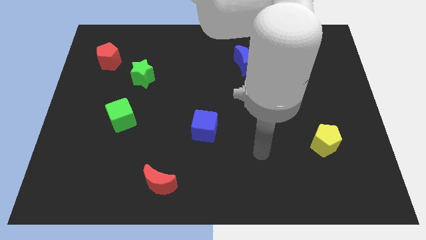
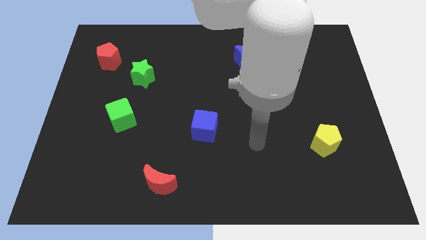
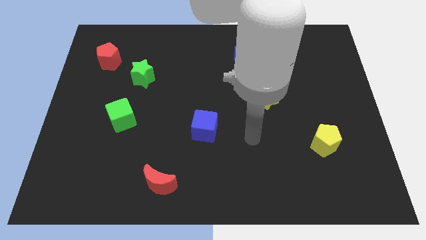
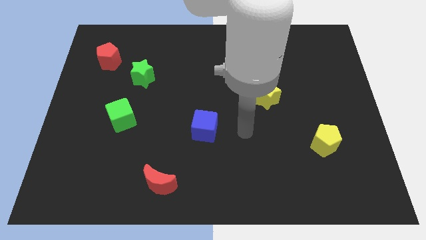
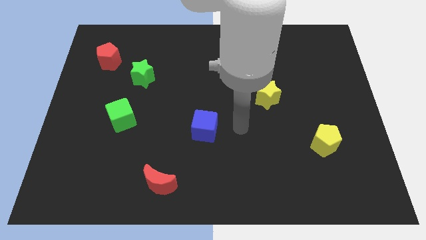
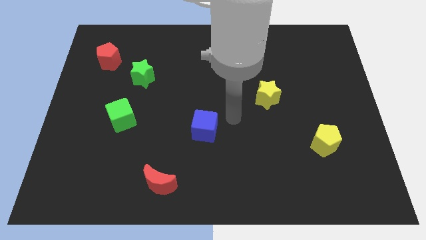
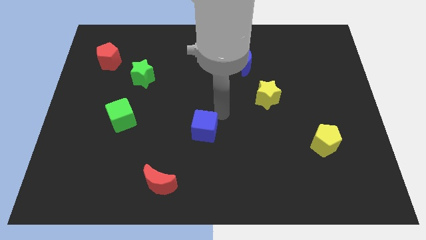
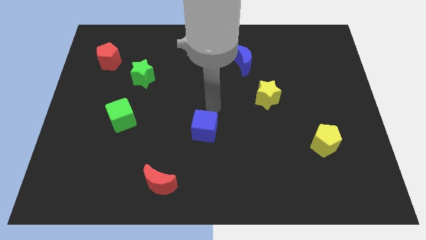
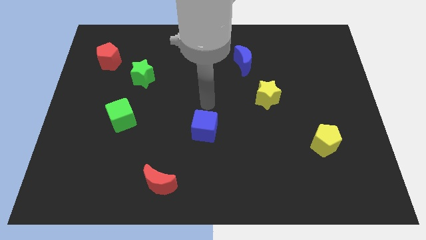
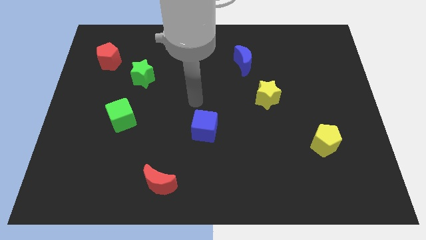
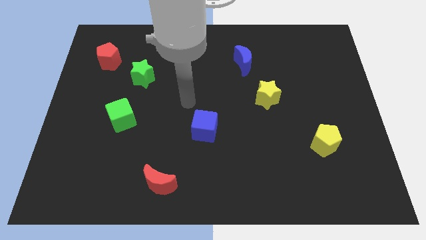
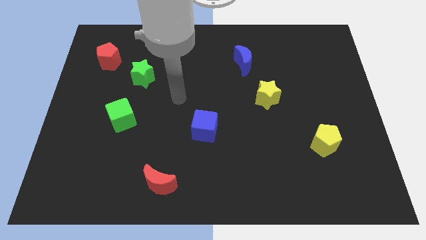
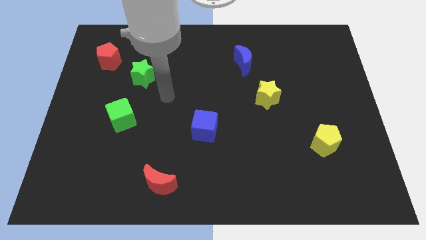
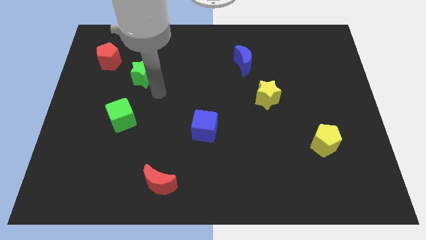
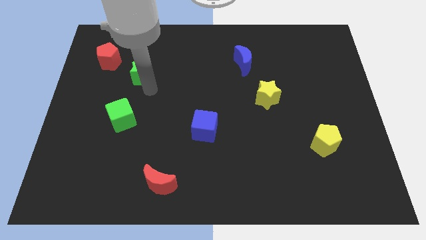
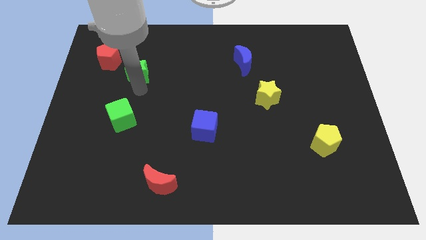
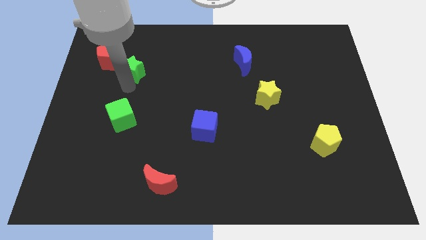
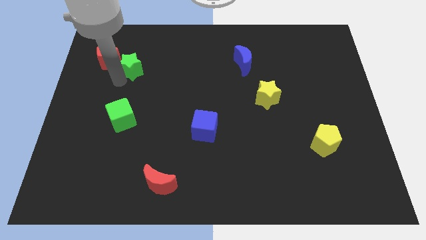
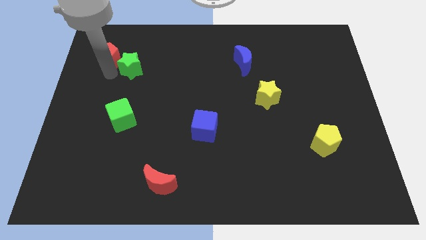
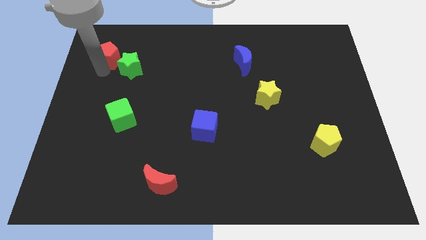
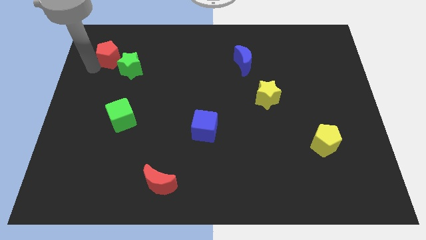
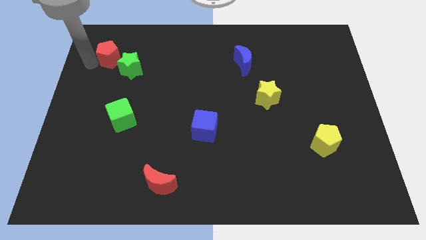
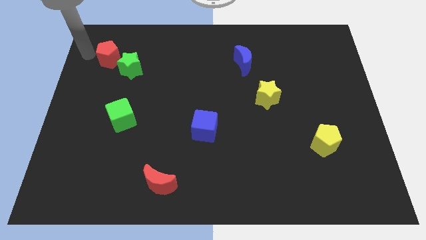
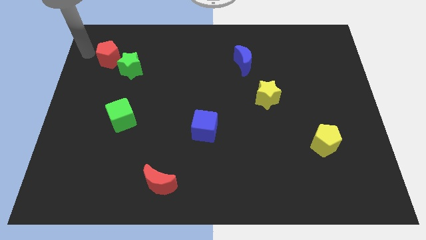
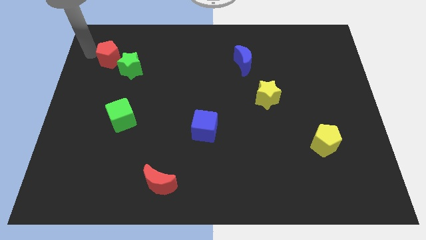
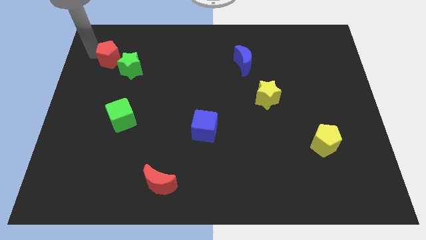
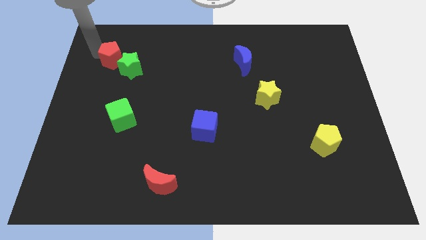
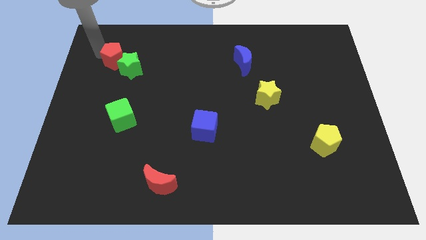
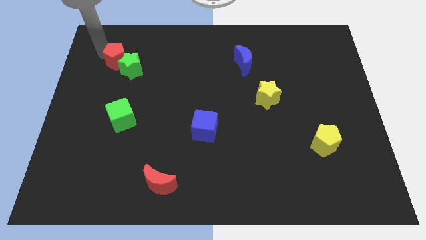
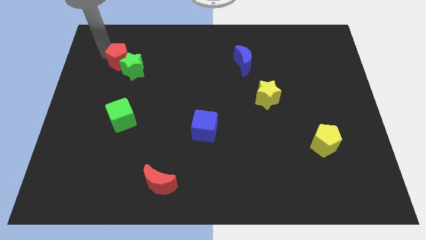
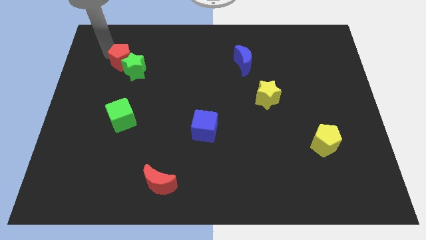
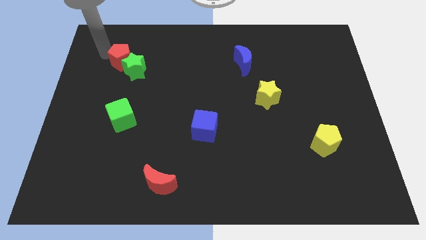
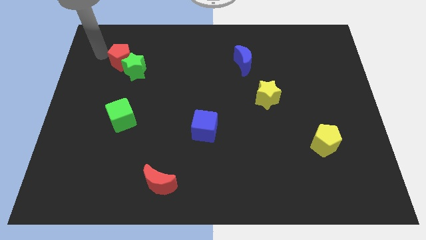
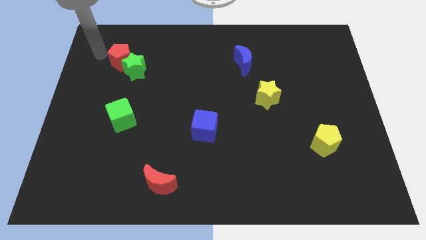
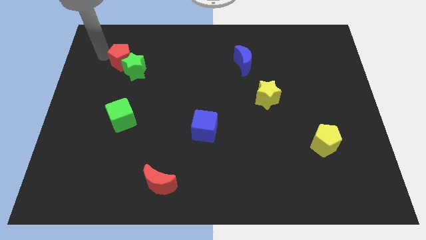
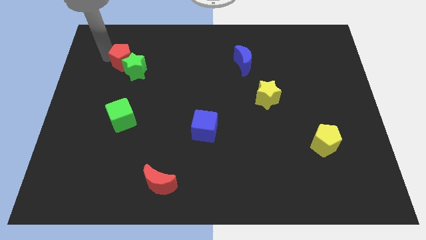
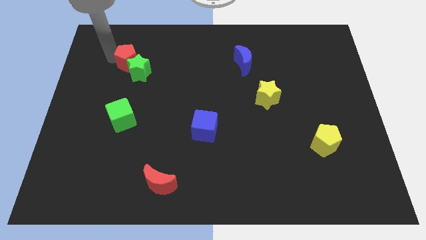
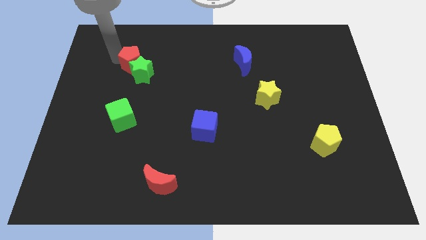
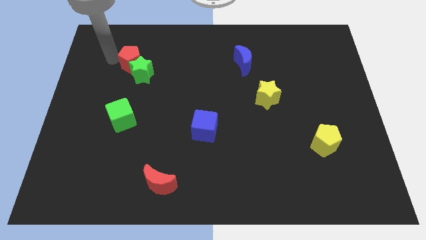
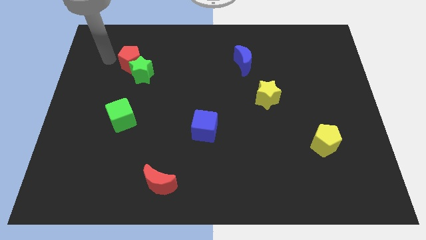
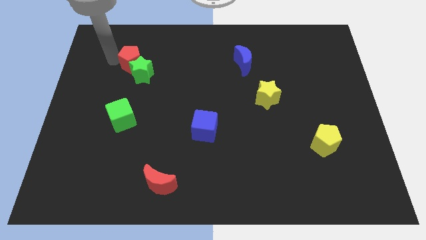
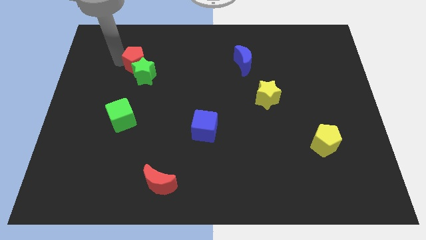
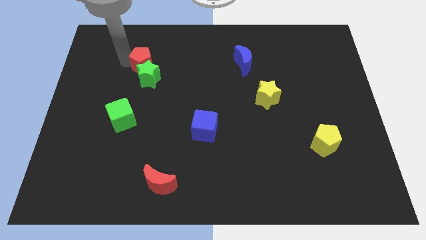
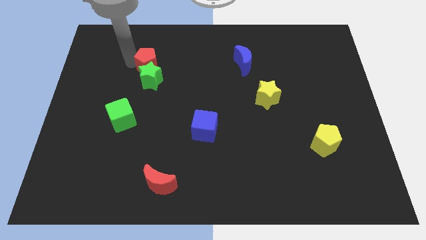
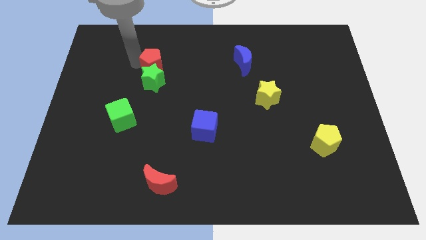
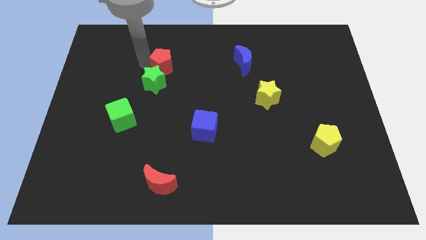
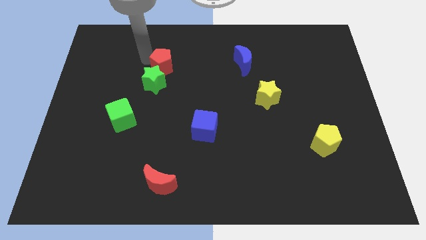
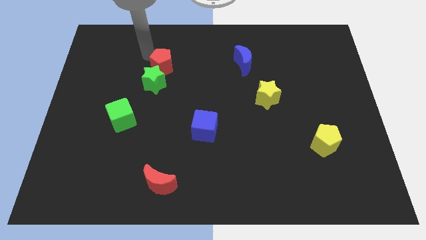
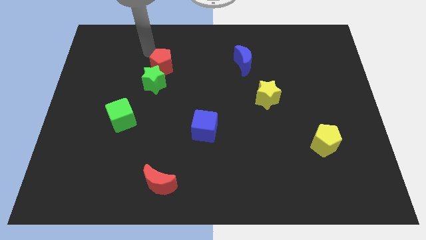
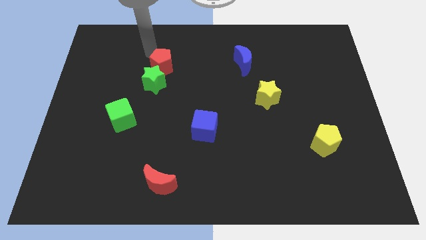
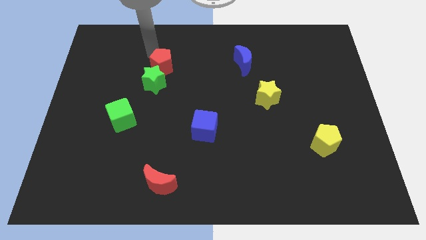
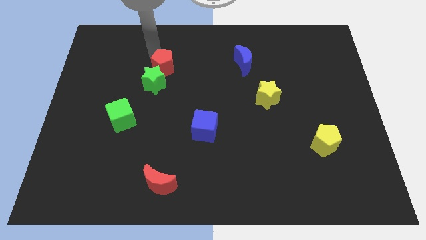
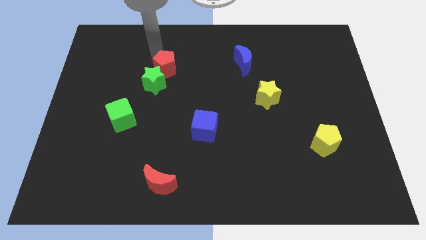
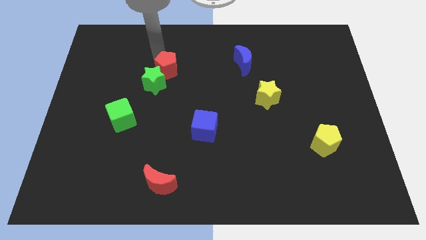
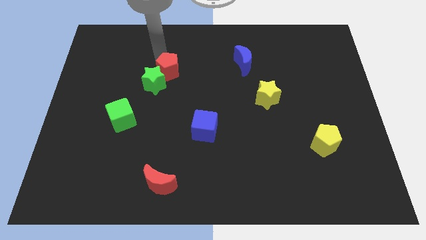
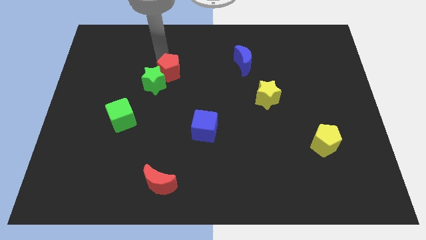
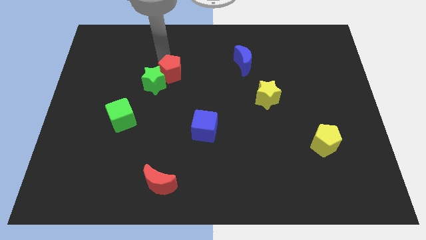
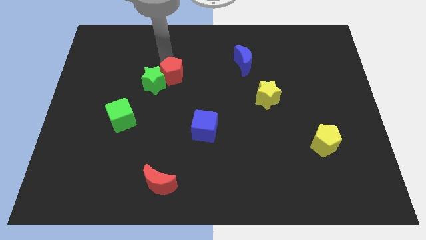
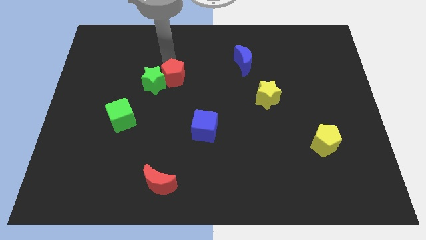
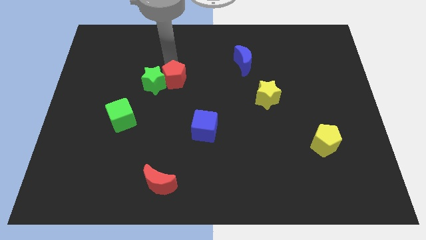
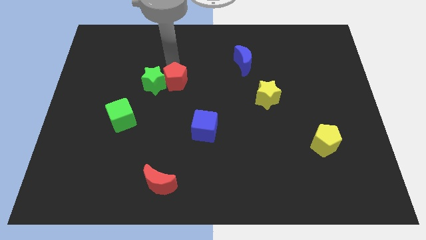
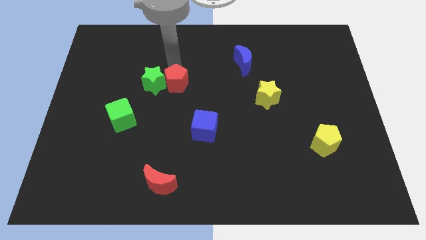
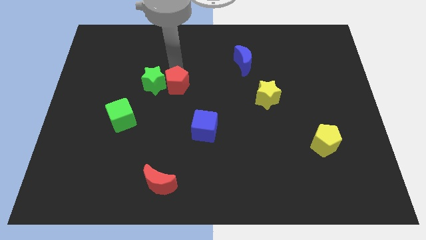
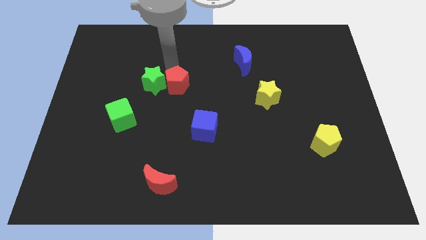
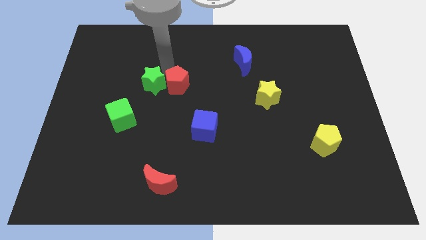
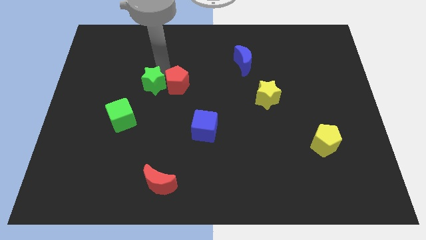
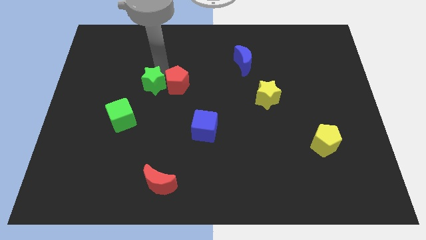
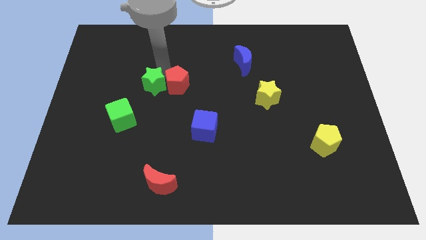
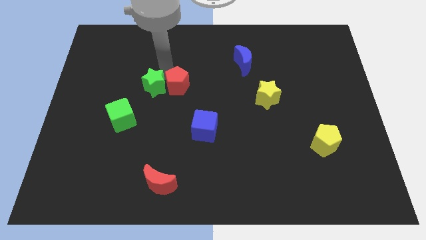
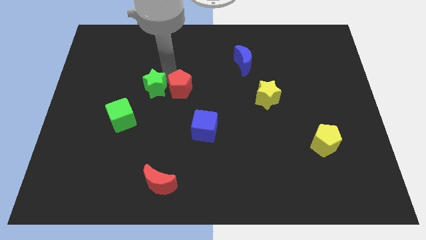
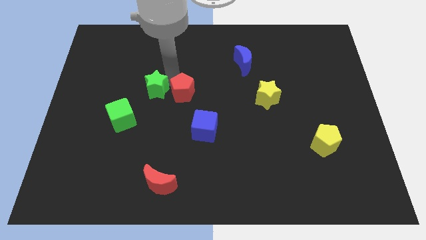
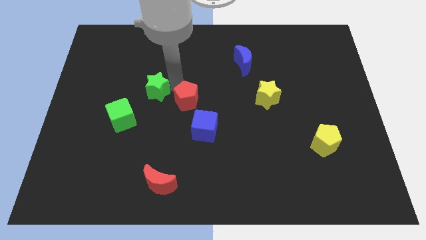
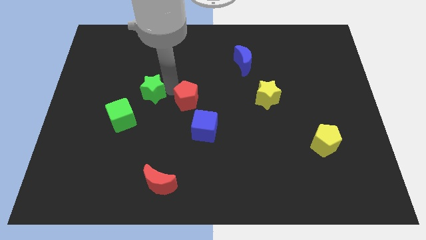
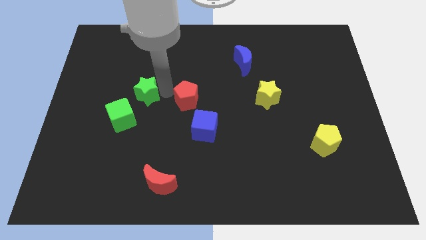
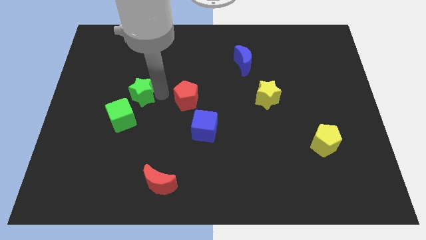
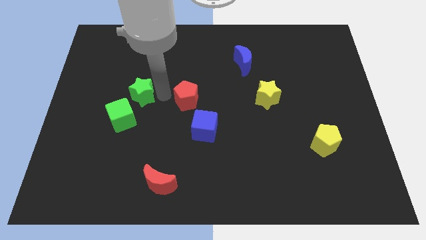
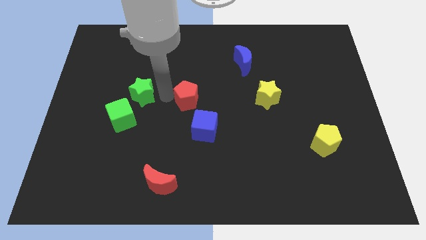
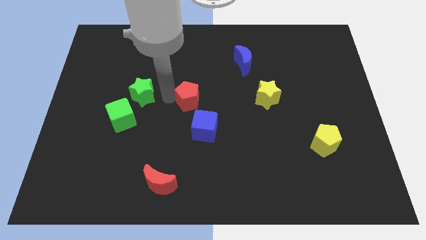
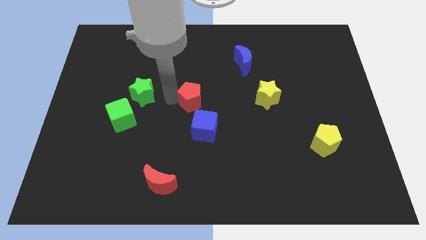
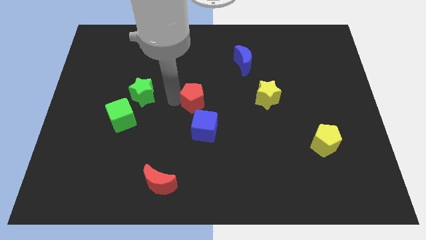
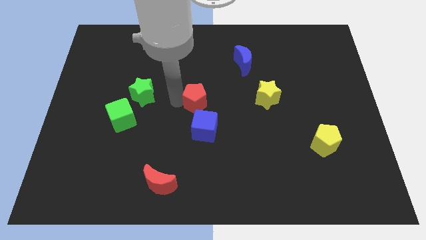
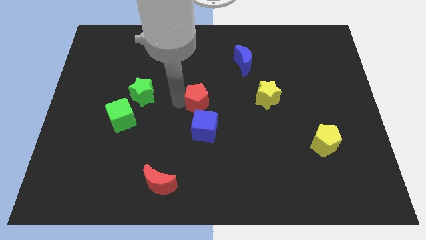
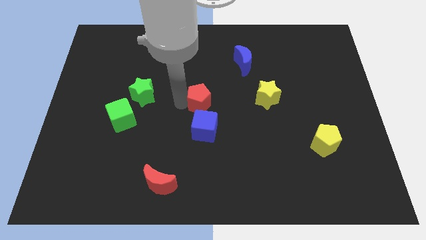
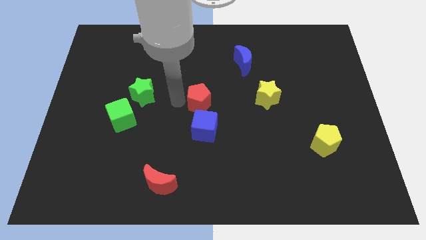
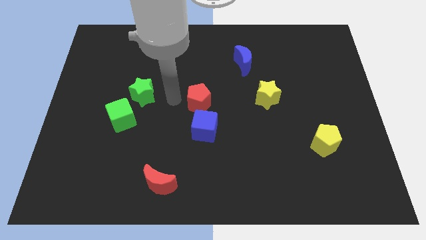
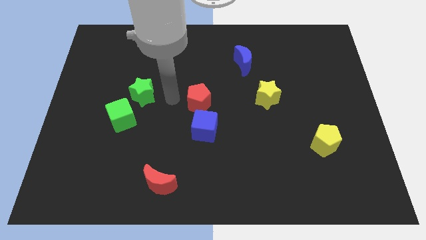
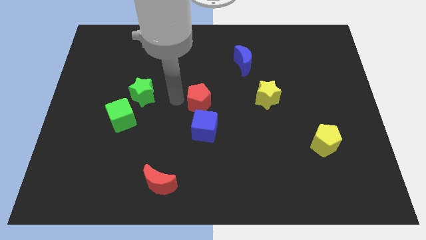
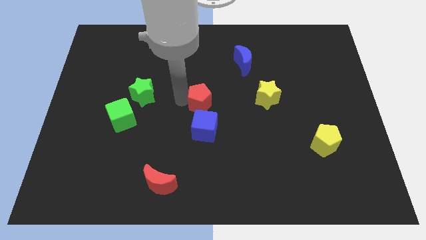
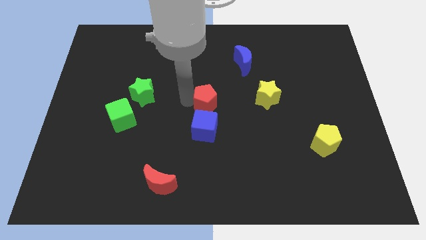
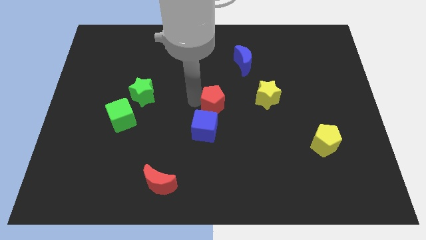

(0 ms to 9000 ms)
slide the red pentagon to the top right side of the blue cube
